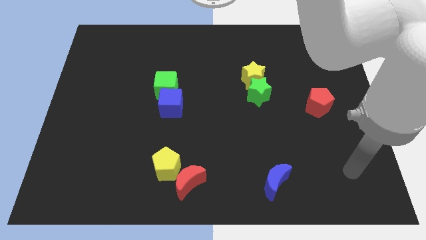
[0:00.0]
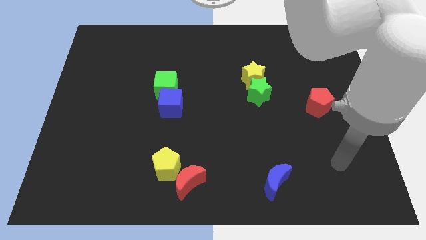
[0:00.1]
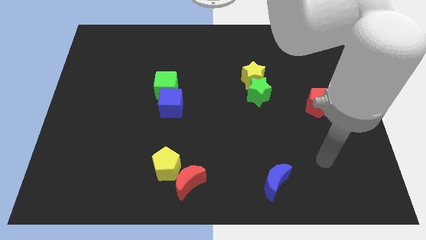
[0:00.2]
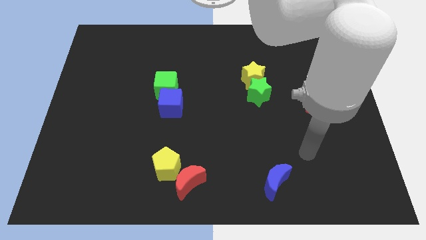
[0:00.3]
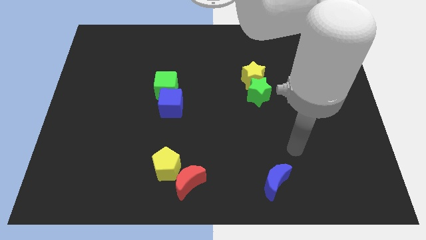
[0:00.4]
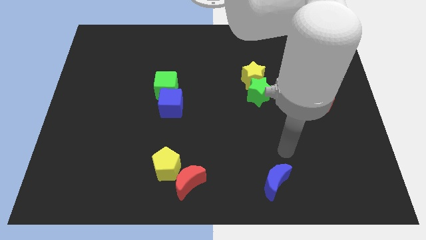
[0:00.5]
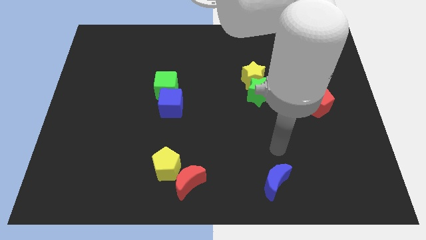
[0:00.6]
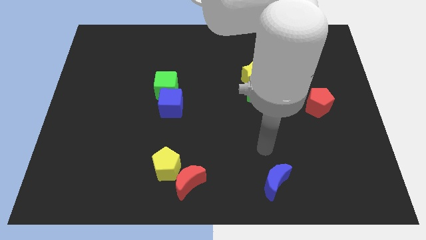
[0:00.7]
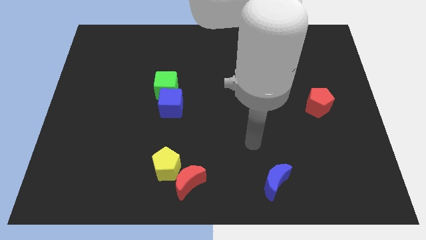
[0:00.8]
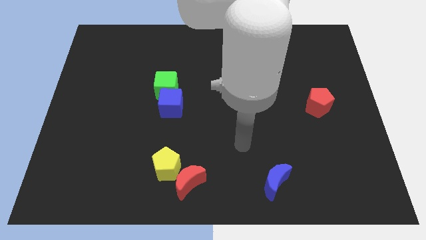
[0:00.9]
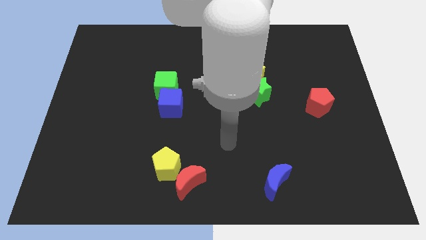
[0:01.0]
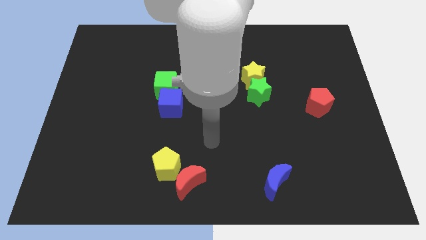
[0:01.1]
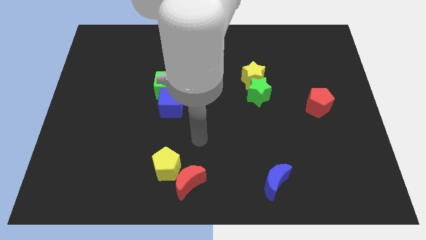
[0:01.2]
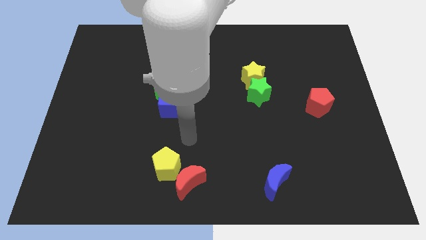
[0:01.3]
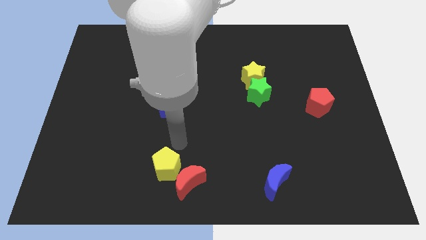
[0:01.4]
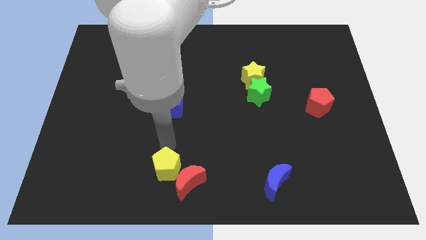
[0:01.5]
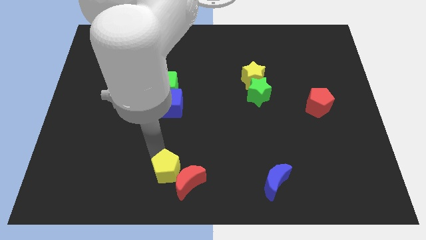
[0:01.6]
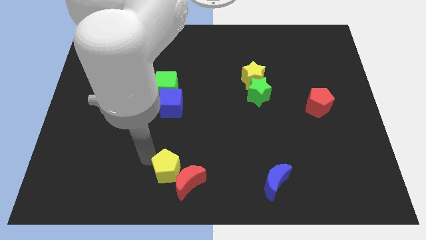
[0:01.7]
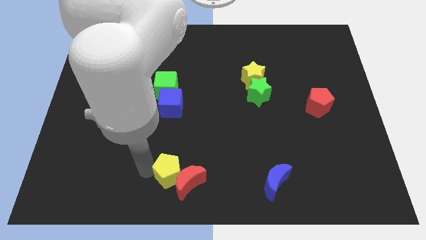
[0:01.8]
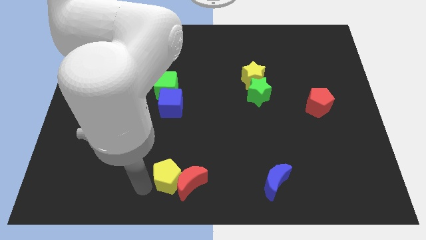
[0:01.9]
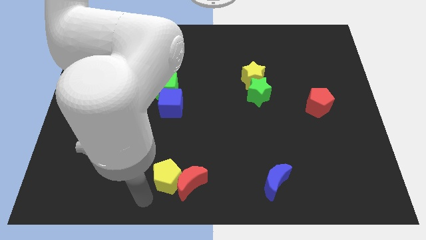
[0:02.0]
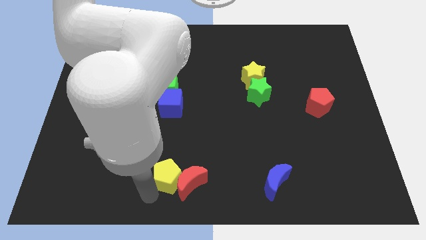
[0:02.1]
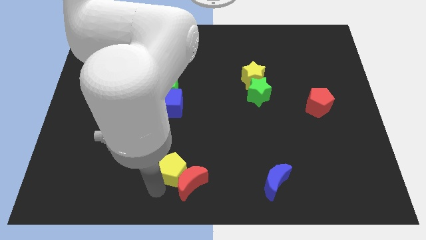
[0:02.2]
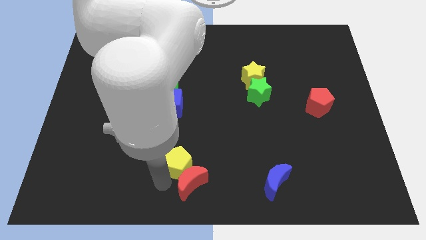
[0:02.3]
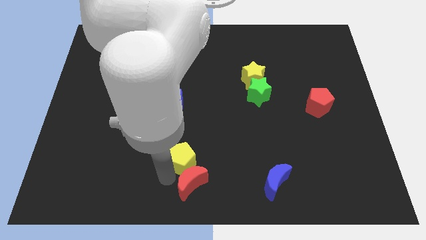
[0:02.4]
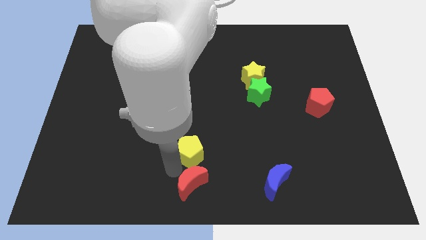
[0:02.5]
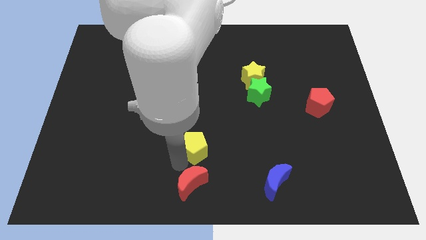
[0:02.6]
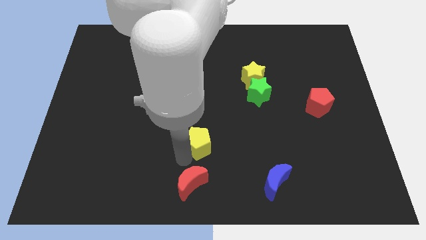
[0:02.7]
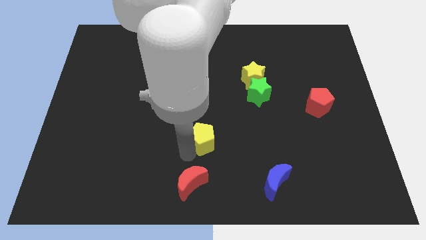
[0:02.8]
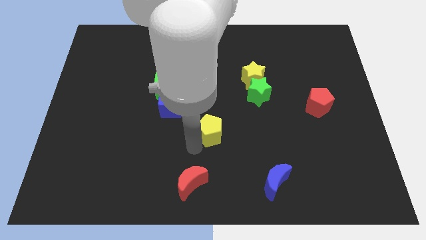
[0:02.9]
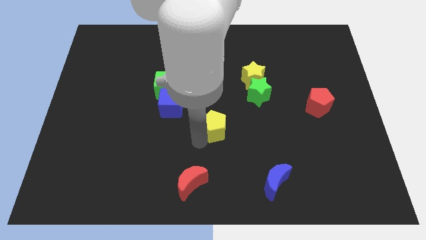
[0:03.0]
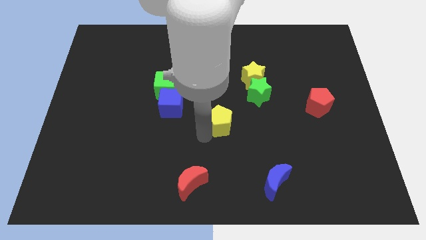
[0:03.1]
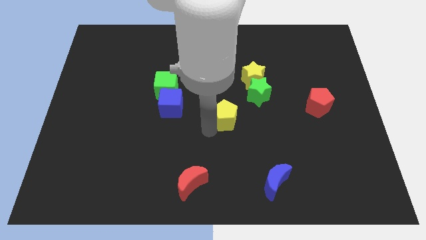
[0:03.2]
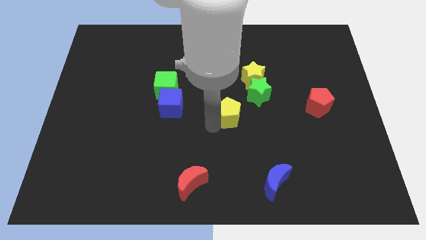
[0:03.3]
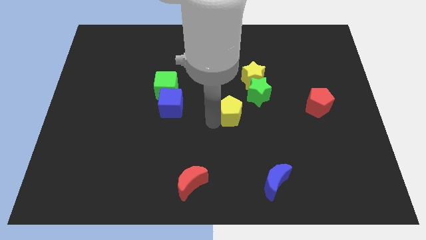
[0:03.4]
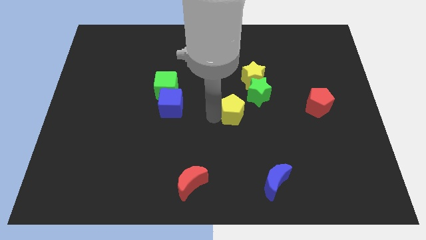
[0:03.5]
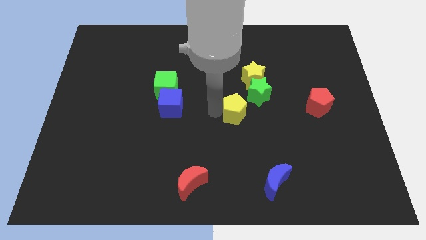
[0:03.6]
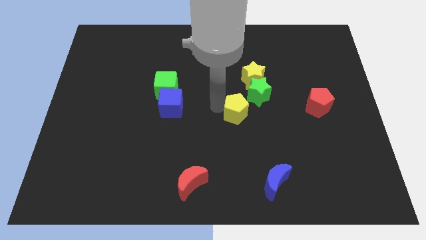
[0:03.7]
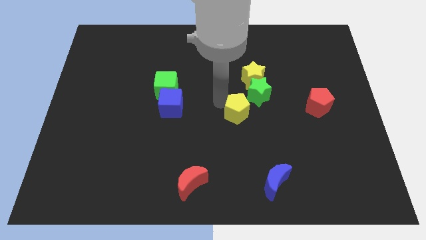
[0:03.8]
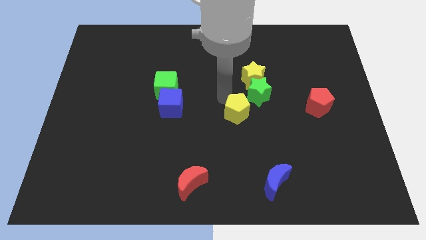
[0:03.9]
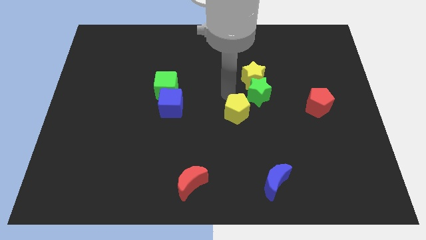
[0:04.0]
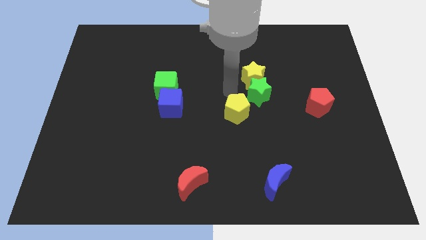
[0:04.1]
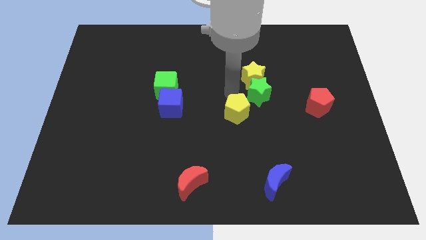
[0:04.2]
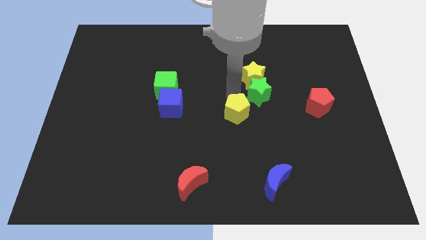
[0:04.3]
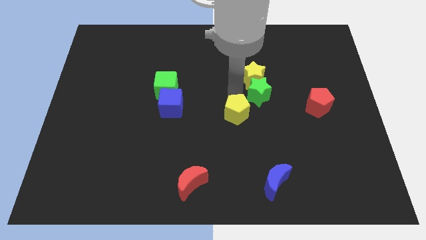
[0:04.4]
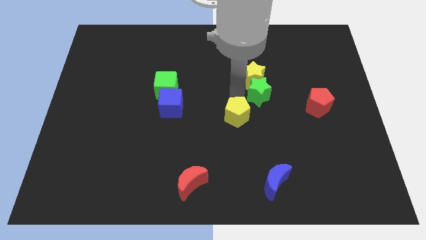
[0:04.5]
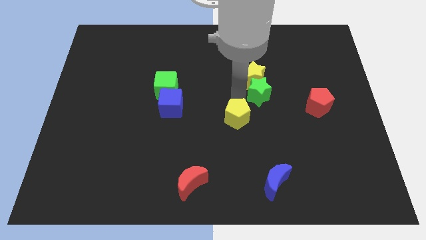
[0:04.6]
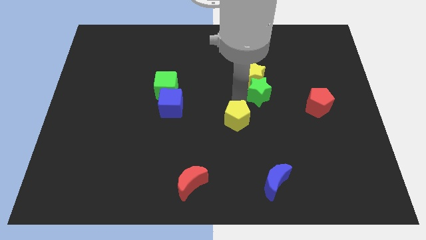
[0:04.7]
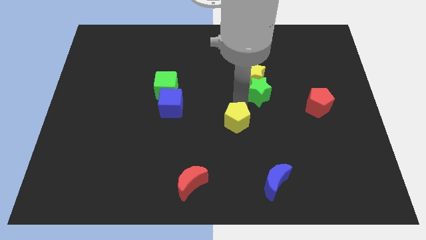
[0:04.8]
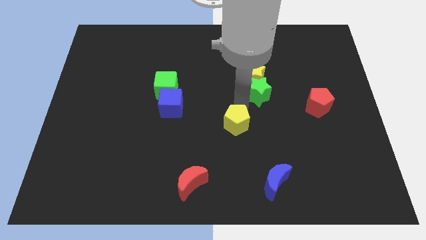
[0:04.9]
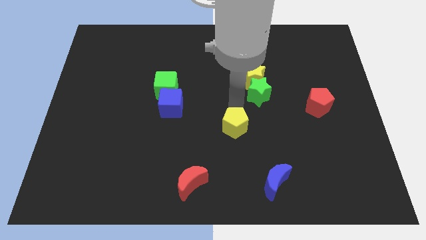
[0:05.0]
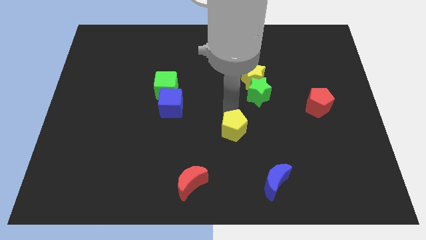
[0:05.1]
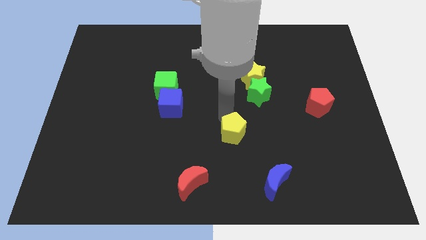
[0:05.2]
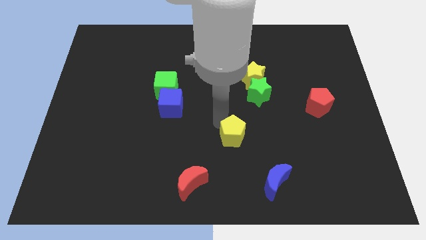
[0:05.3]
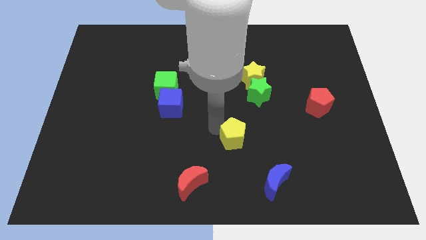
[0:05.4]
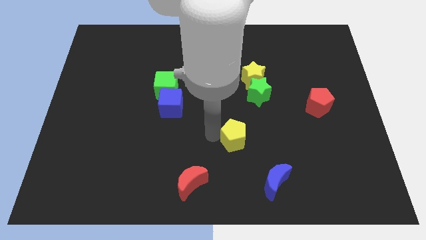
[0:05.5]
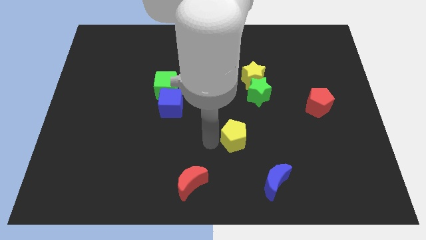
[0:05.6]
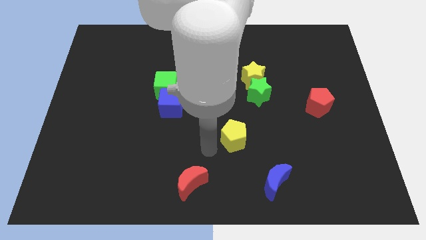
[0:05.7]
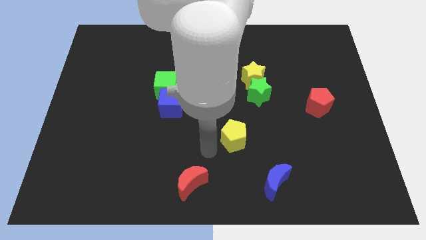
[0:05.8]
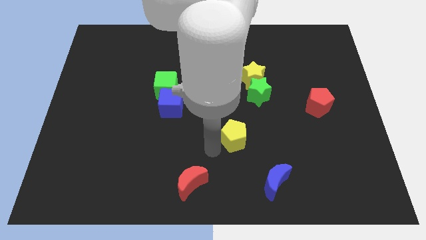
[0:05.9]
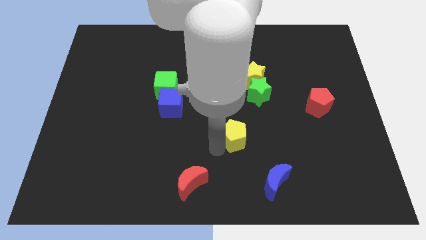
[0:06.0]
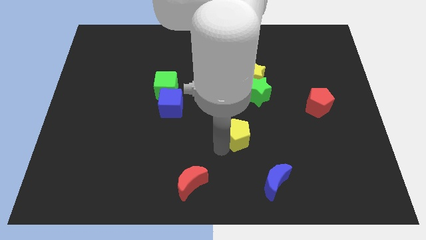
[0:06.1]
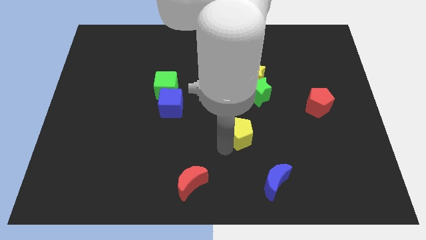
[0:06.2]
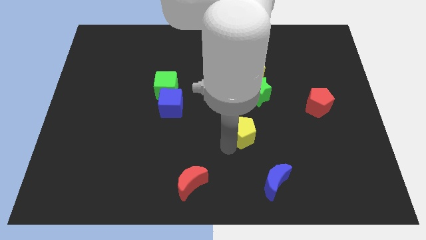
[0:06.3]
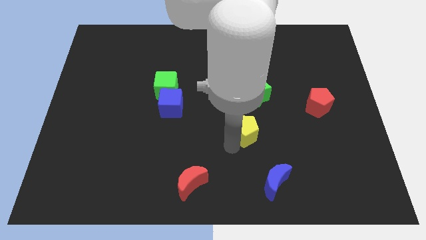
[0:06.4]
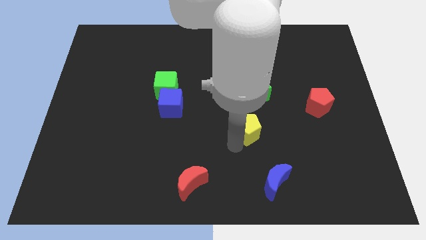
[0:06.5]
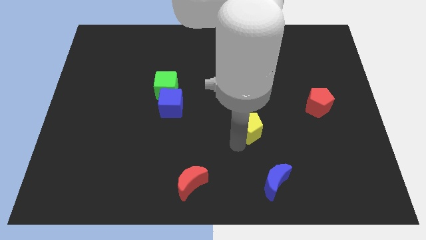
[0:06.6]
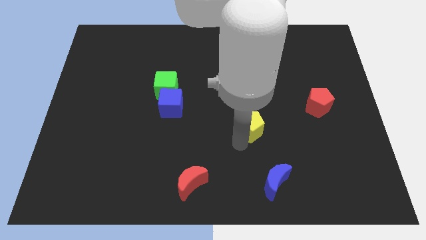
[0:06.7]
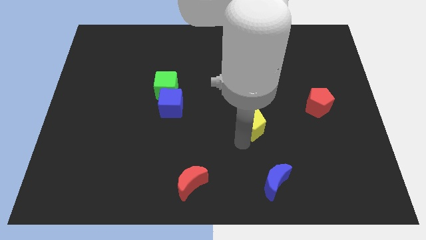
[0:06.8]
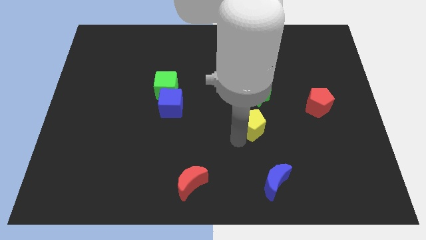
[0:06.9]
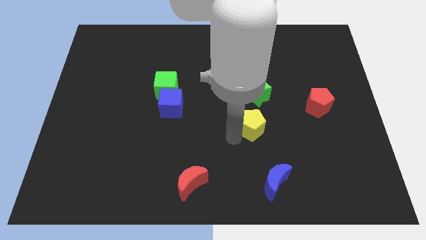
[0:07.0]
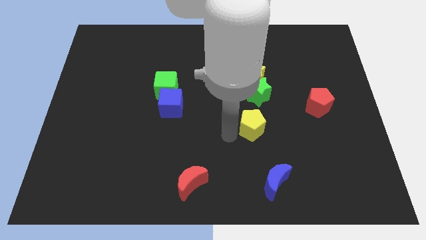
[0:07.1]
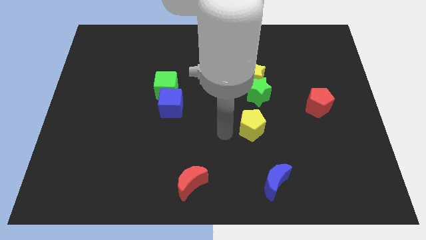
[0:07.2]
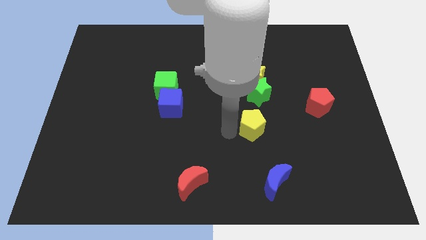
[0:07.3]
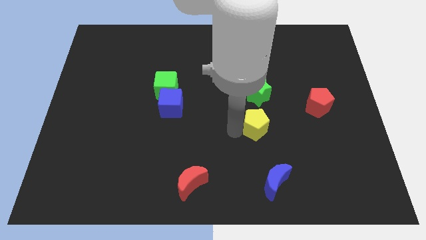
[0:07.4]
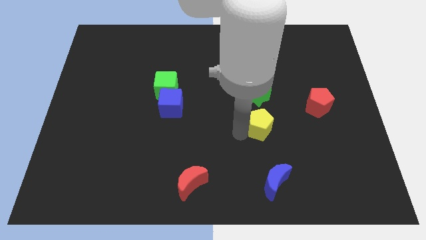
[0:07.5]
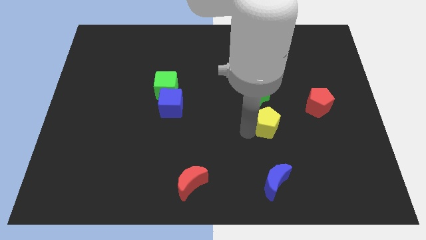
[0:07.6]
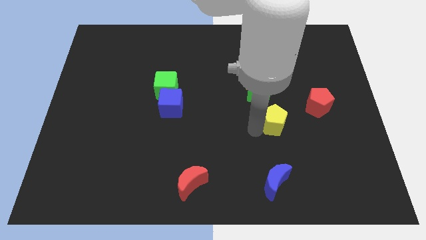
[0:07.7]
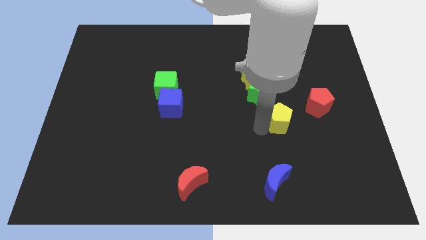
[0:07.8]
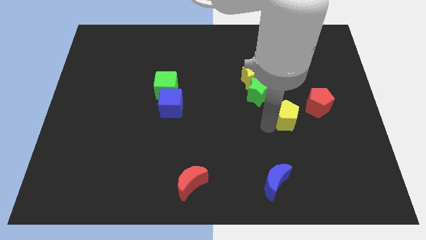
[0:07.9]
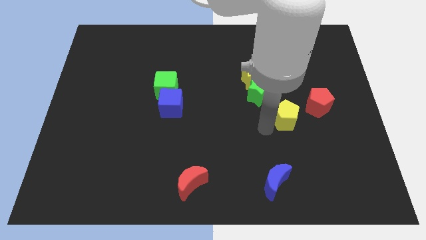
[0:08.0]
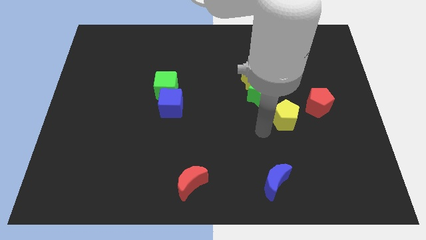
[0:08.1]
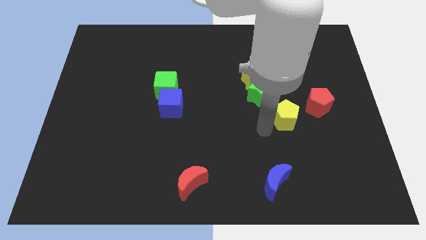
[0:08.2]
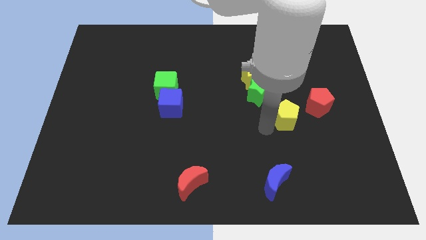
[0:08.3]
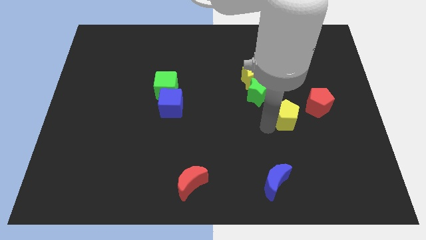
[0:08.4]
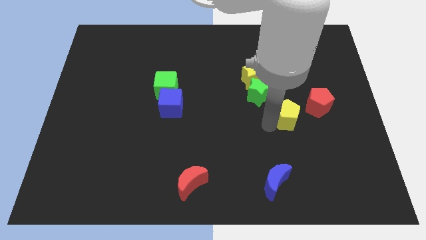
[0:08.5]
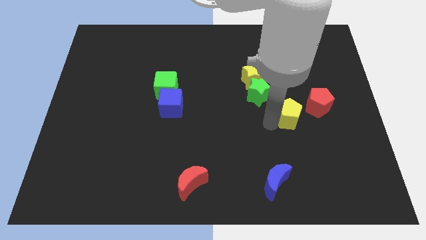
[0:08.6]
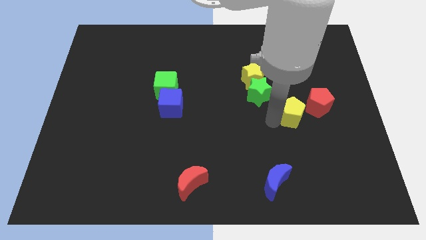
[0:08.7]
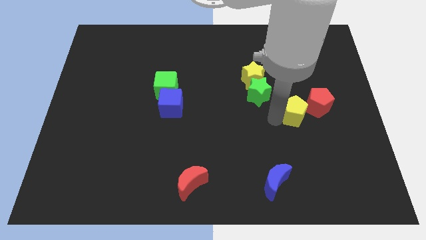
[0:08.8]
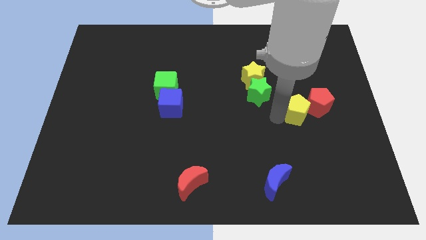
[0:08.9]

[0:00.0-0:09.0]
put the yellow pentagon next to the red pentagon
